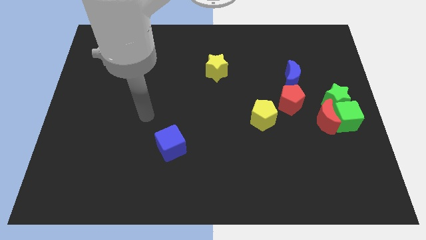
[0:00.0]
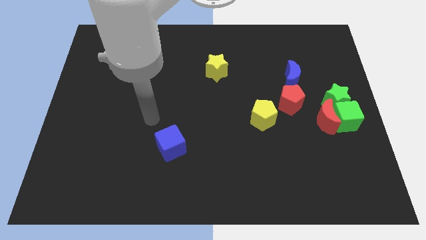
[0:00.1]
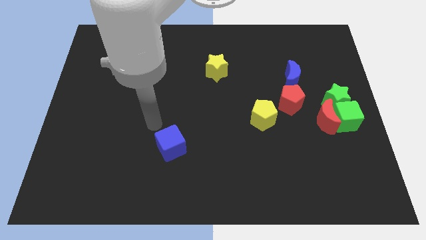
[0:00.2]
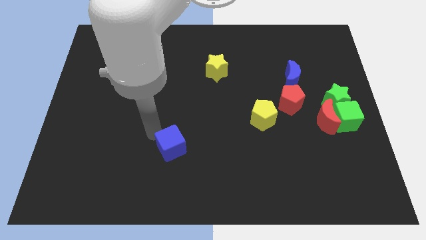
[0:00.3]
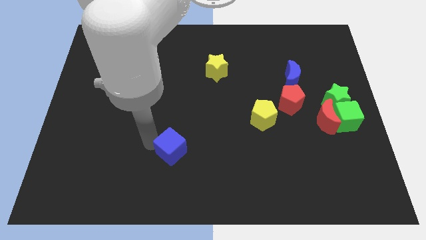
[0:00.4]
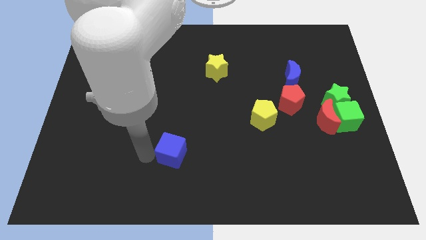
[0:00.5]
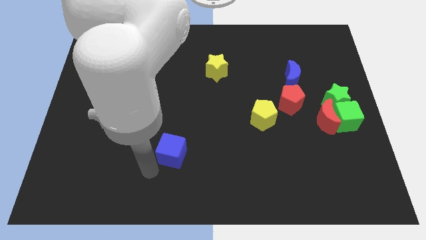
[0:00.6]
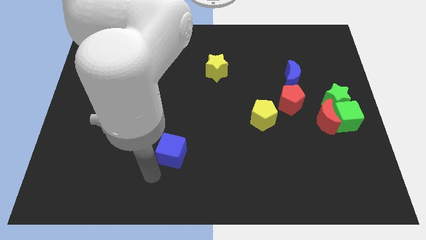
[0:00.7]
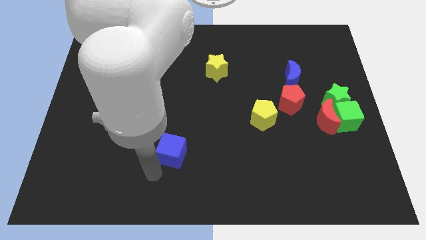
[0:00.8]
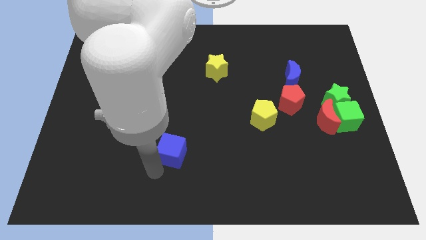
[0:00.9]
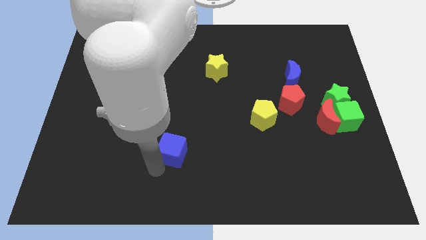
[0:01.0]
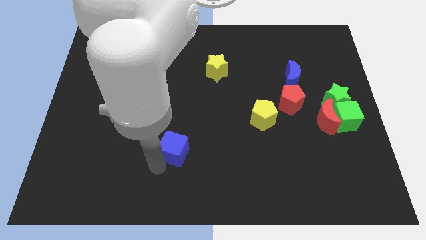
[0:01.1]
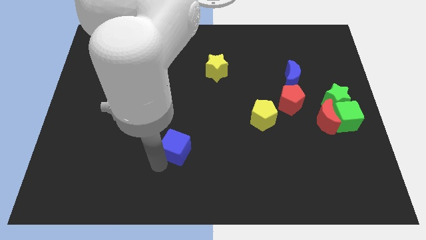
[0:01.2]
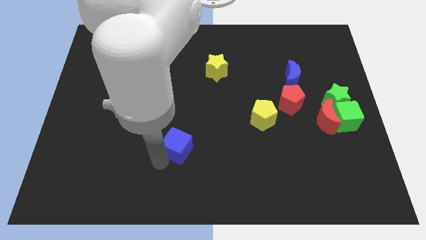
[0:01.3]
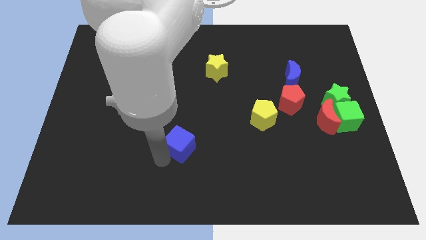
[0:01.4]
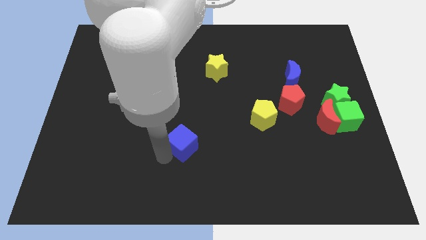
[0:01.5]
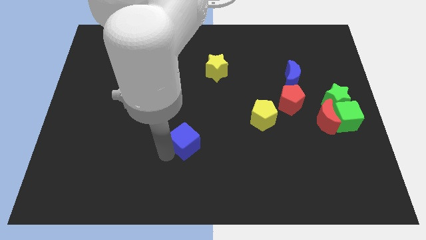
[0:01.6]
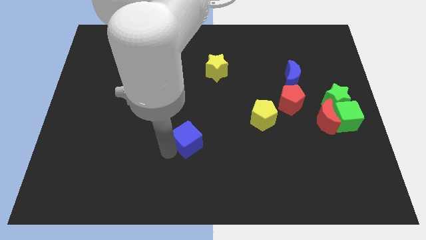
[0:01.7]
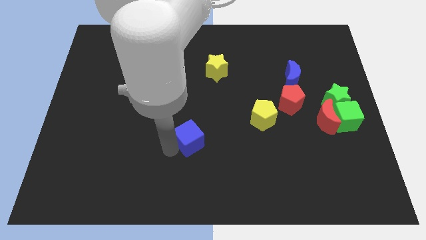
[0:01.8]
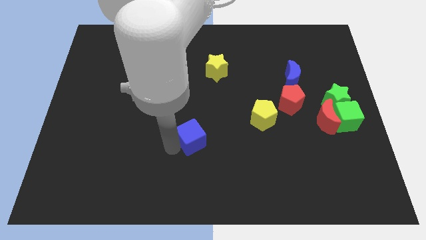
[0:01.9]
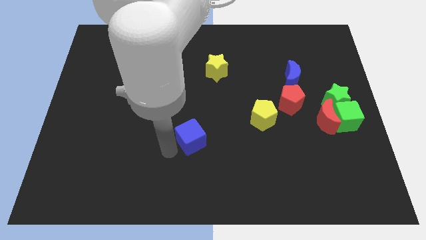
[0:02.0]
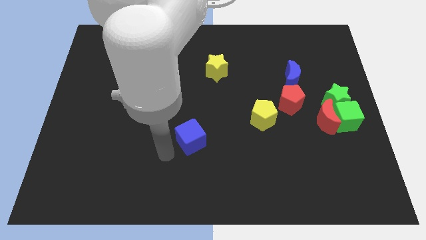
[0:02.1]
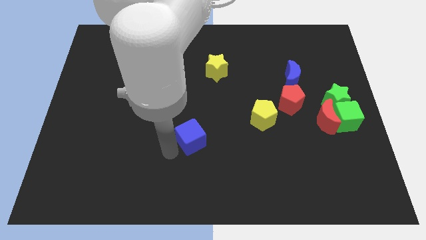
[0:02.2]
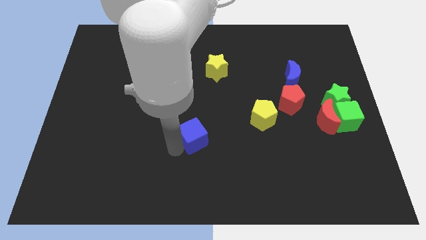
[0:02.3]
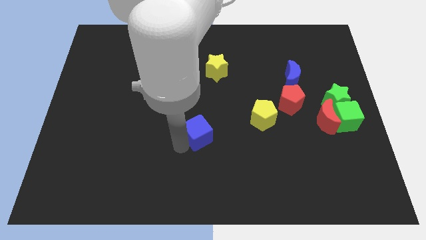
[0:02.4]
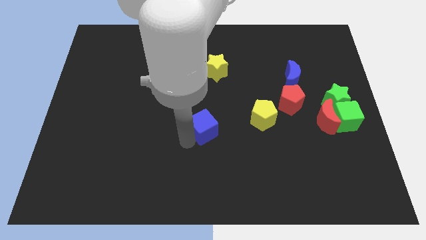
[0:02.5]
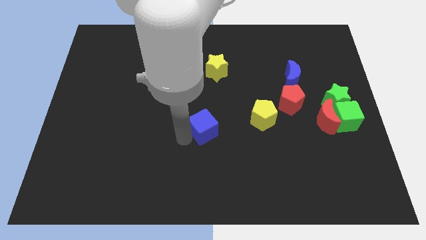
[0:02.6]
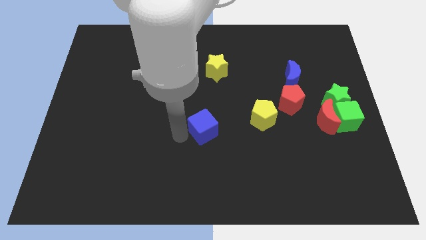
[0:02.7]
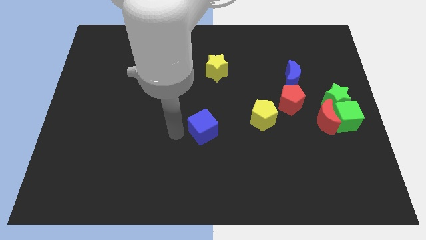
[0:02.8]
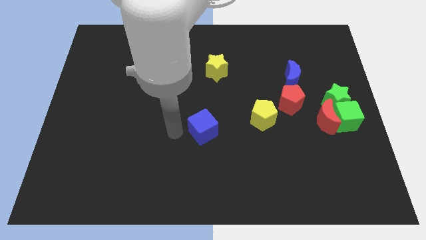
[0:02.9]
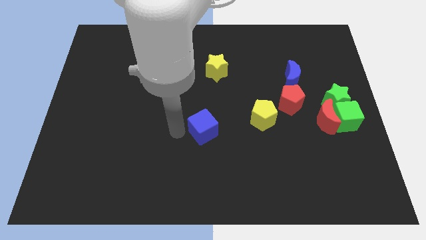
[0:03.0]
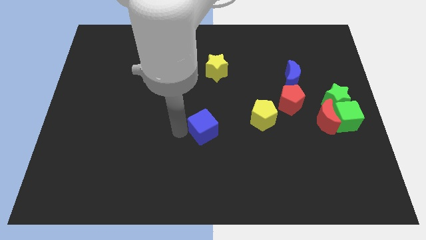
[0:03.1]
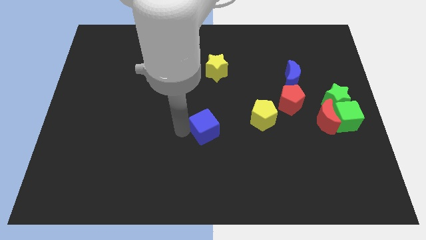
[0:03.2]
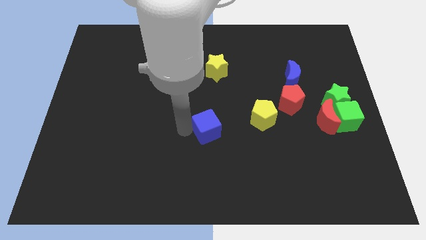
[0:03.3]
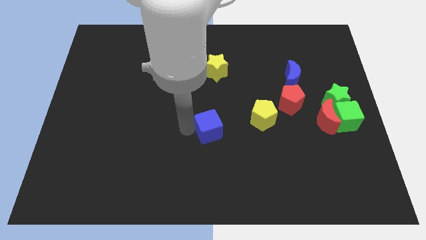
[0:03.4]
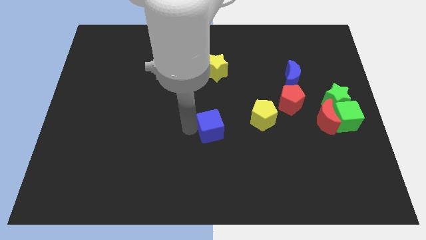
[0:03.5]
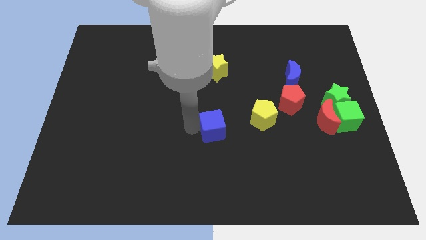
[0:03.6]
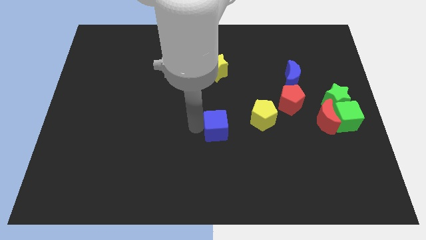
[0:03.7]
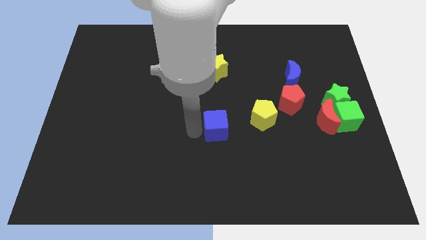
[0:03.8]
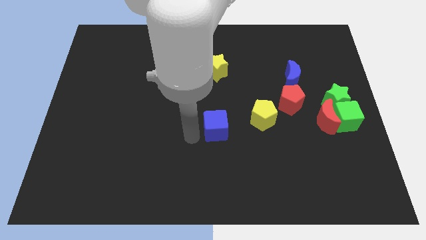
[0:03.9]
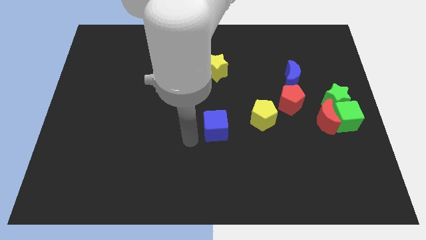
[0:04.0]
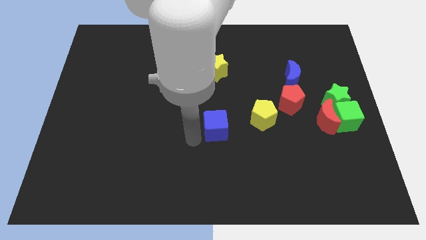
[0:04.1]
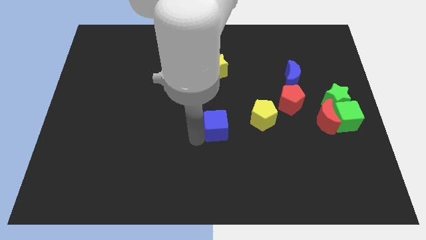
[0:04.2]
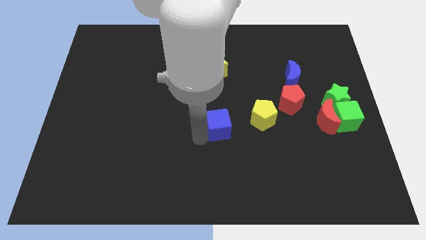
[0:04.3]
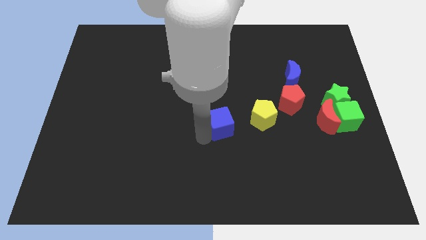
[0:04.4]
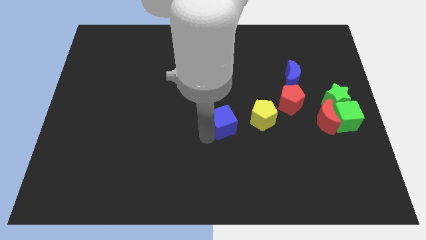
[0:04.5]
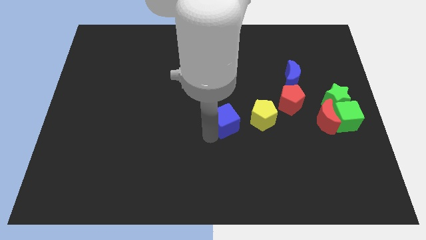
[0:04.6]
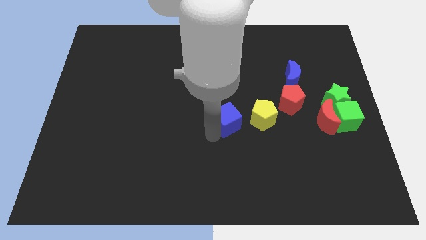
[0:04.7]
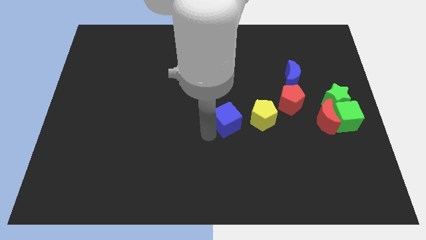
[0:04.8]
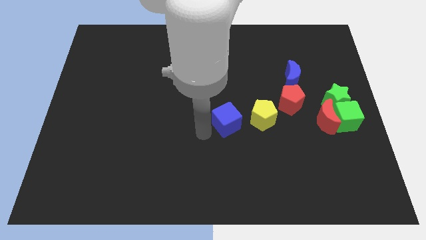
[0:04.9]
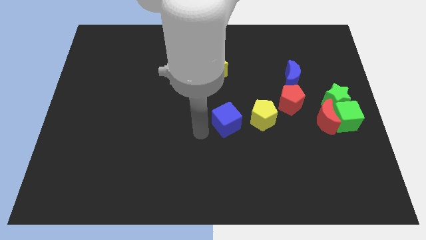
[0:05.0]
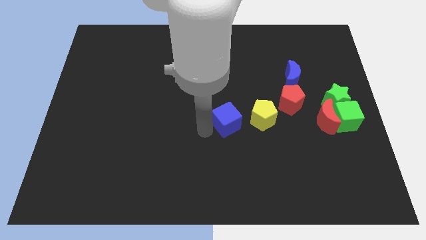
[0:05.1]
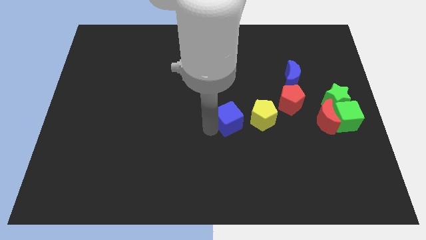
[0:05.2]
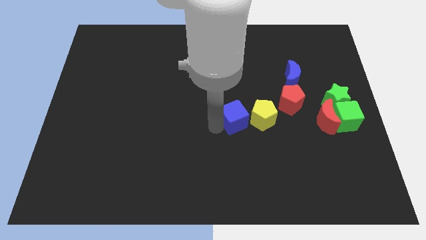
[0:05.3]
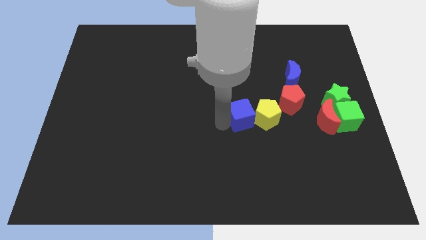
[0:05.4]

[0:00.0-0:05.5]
move the blue cube to the yellow pentagon

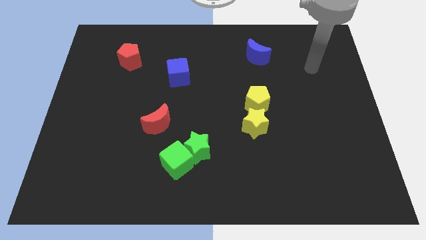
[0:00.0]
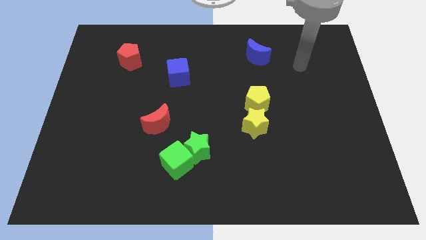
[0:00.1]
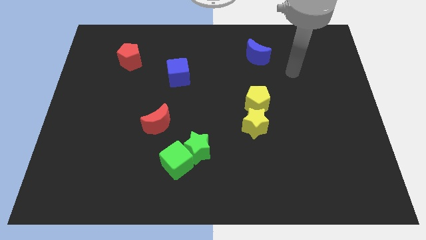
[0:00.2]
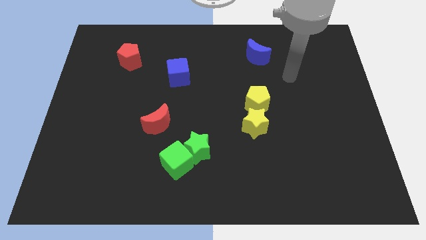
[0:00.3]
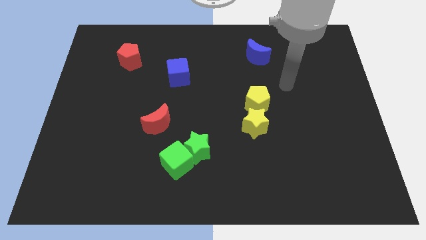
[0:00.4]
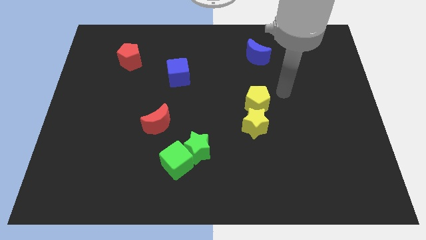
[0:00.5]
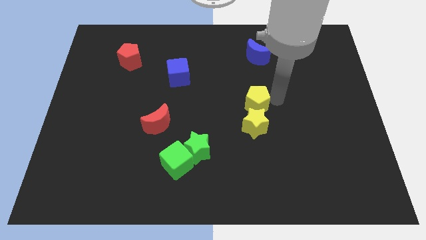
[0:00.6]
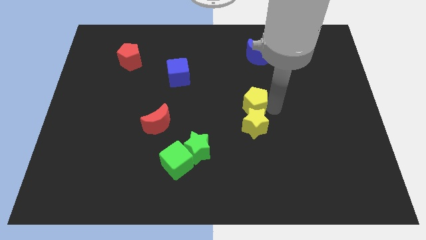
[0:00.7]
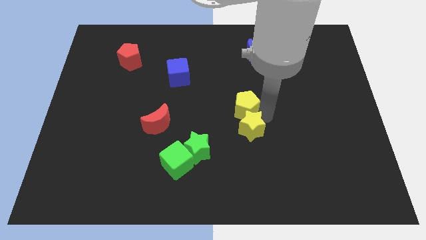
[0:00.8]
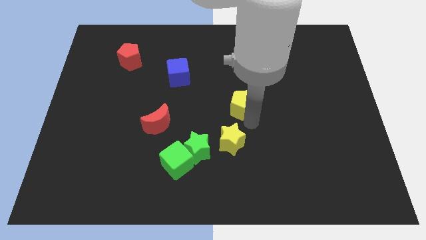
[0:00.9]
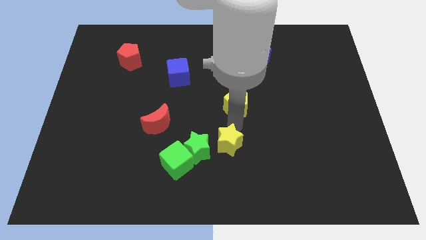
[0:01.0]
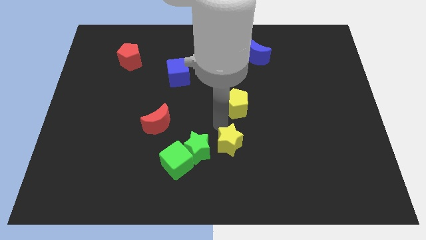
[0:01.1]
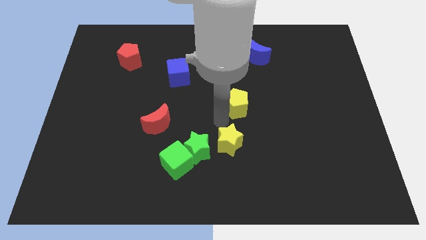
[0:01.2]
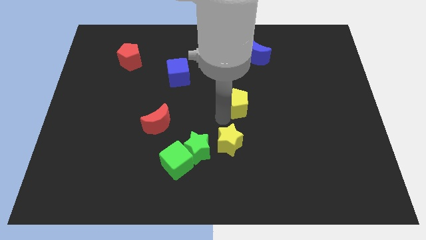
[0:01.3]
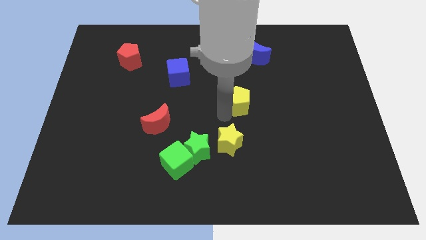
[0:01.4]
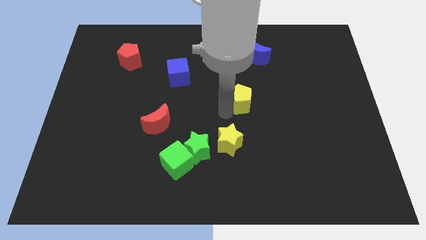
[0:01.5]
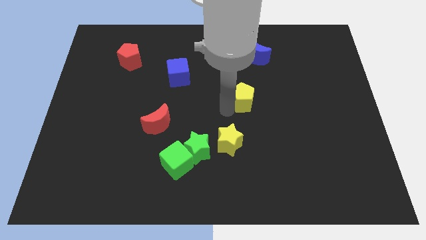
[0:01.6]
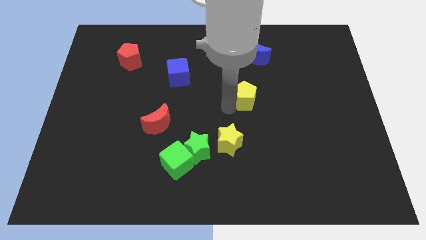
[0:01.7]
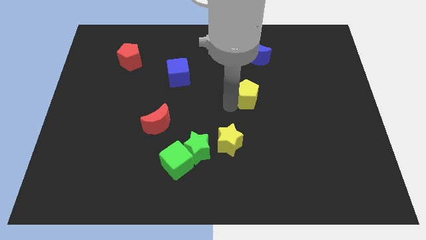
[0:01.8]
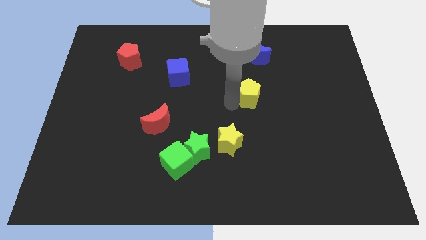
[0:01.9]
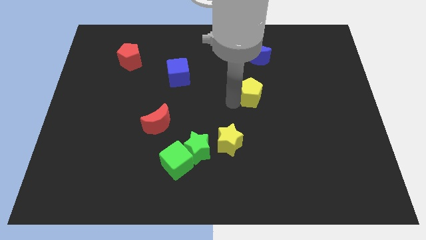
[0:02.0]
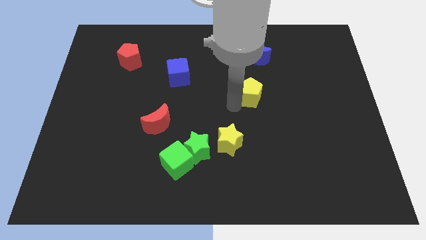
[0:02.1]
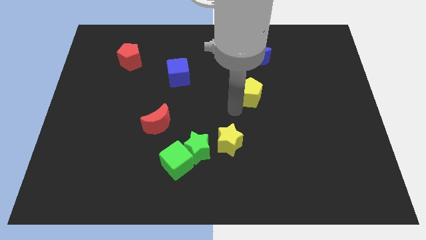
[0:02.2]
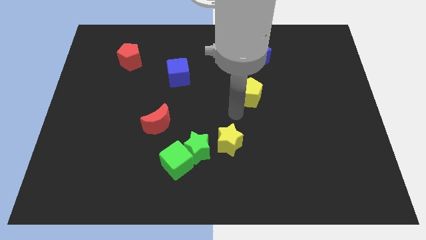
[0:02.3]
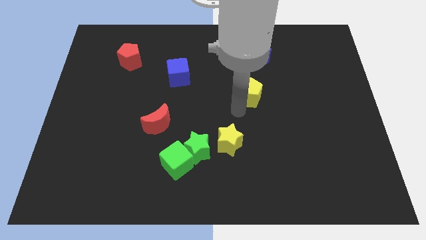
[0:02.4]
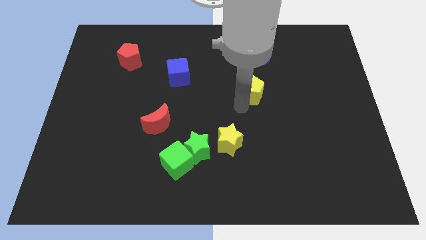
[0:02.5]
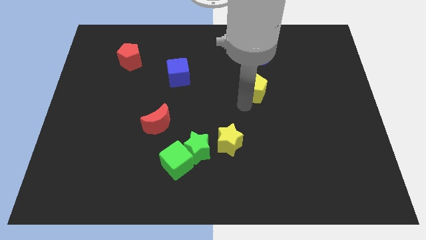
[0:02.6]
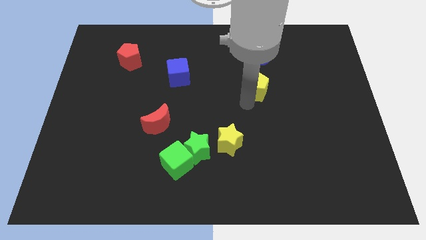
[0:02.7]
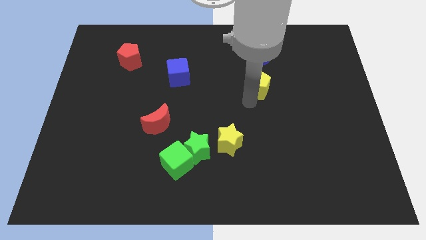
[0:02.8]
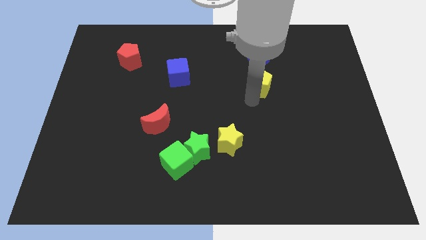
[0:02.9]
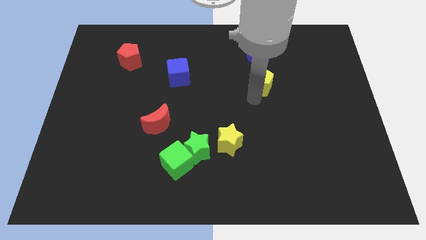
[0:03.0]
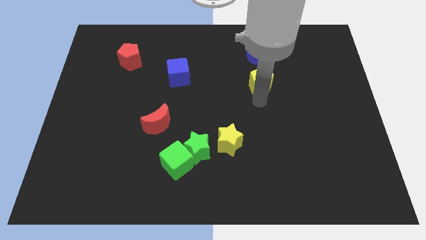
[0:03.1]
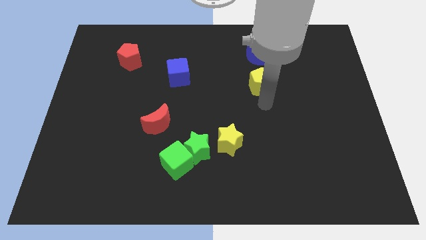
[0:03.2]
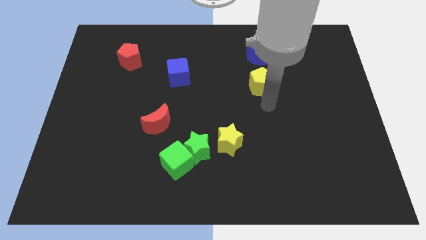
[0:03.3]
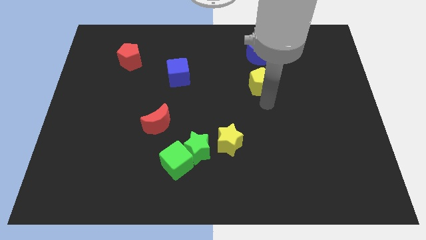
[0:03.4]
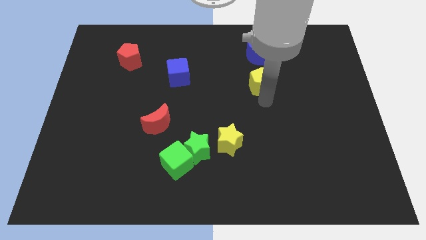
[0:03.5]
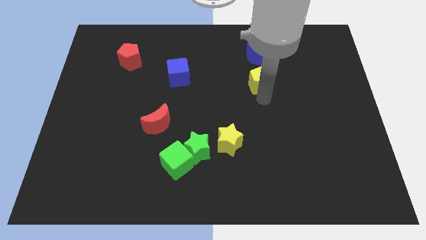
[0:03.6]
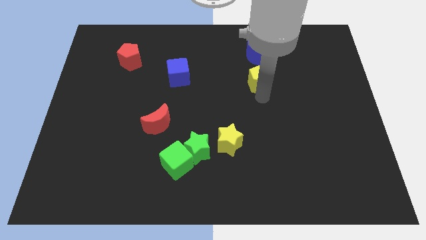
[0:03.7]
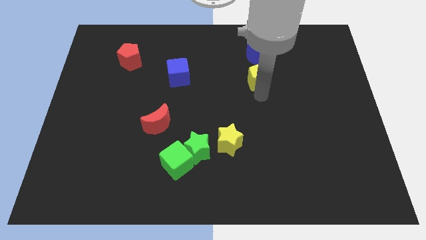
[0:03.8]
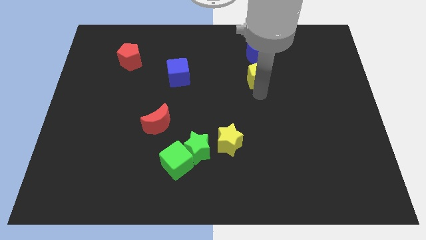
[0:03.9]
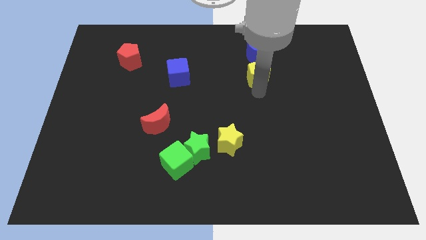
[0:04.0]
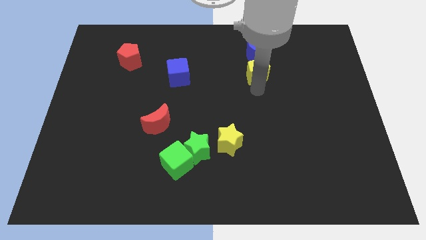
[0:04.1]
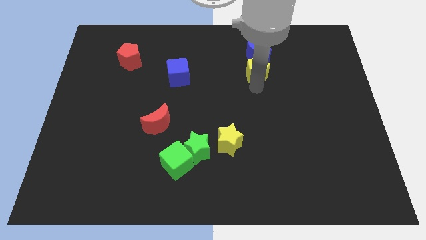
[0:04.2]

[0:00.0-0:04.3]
put the yellow pentagon to the blue moon
